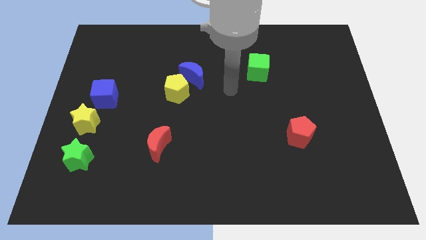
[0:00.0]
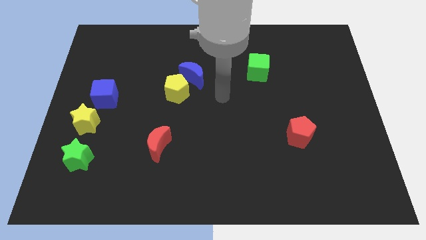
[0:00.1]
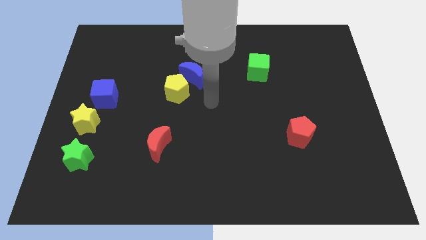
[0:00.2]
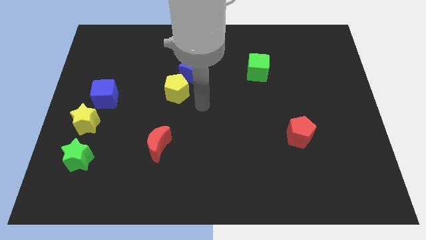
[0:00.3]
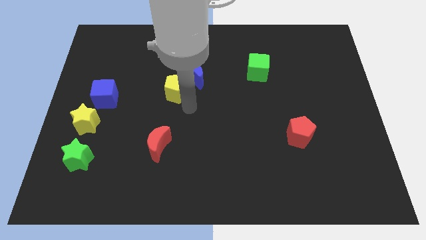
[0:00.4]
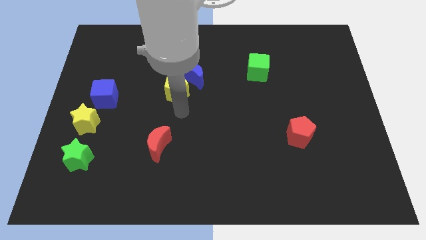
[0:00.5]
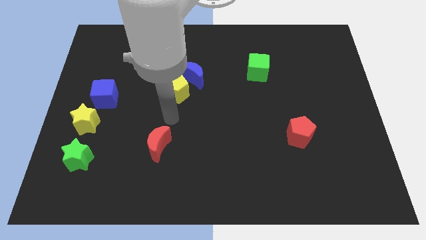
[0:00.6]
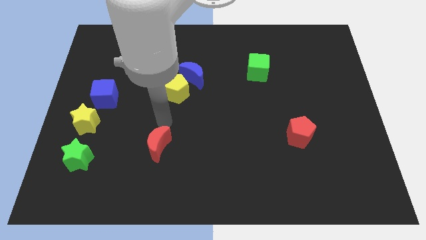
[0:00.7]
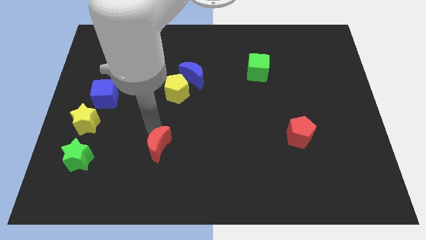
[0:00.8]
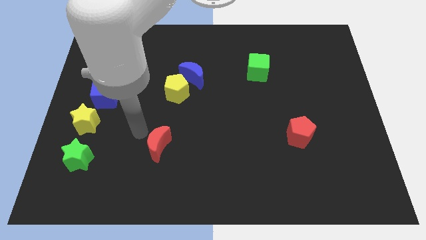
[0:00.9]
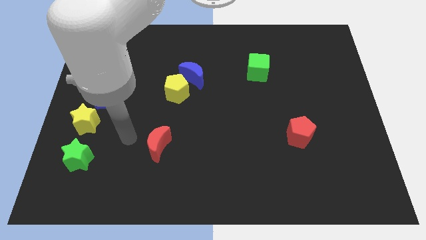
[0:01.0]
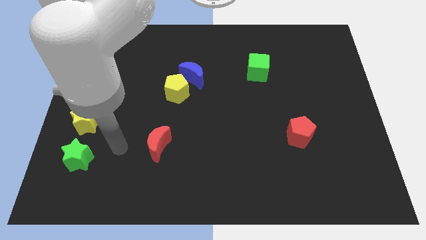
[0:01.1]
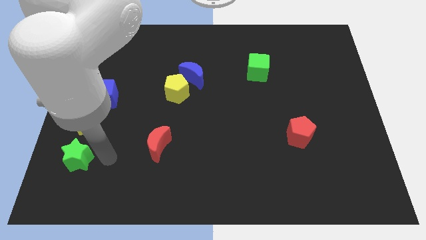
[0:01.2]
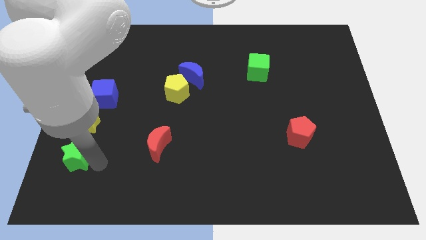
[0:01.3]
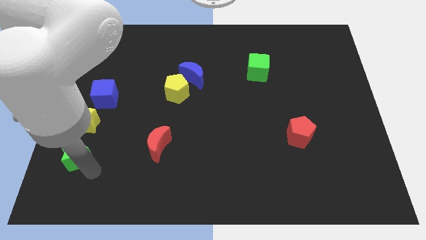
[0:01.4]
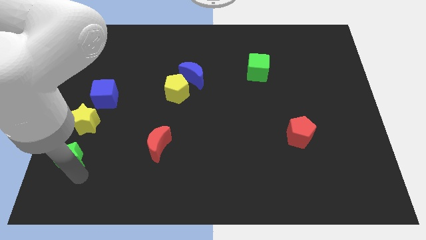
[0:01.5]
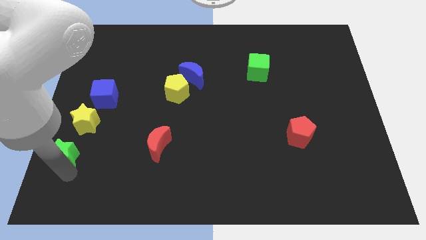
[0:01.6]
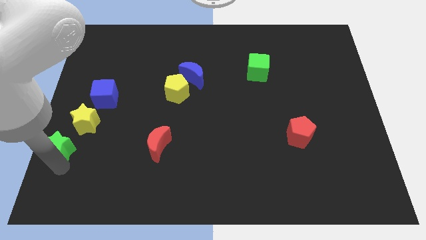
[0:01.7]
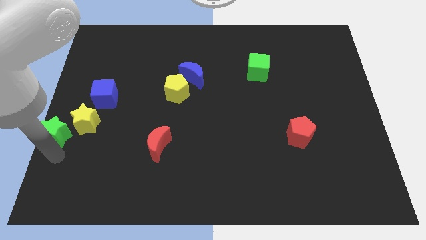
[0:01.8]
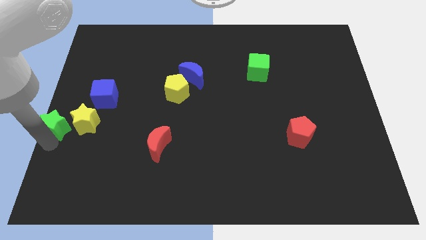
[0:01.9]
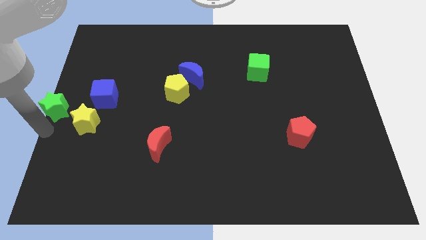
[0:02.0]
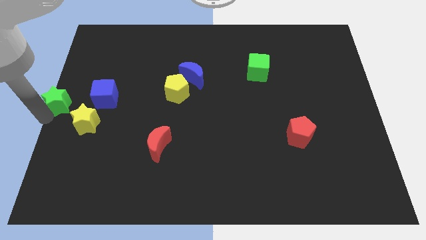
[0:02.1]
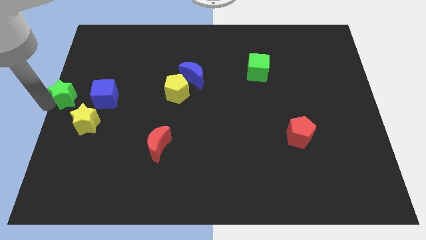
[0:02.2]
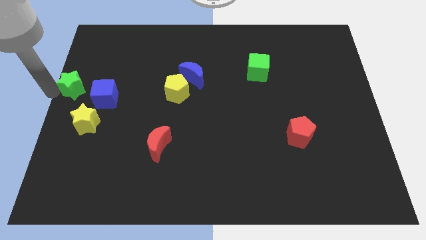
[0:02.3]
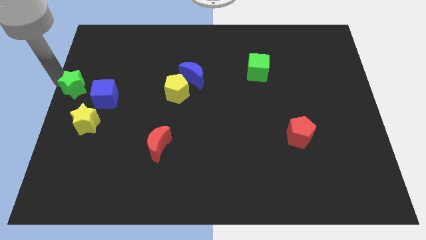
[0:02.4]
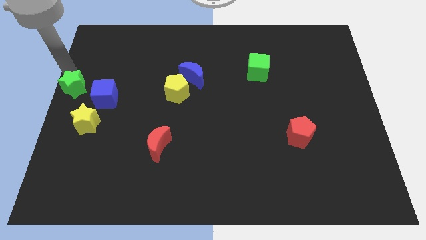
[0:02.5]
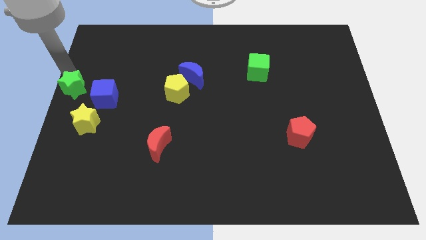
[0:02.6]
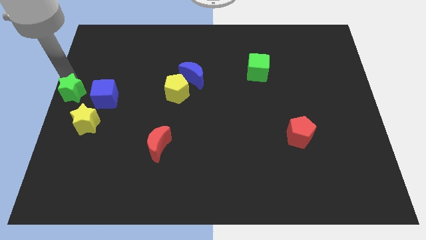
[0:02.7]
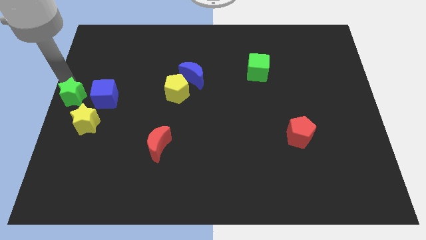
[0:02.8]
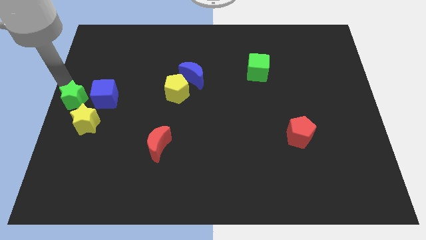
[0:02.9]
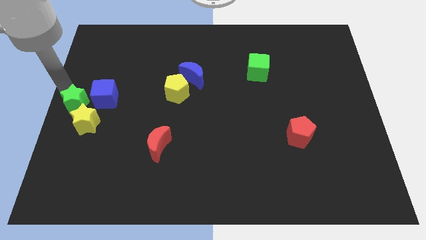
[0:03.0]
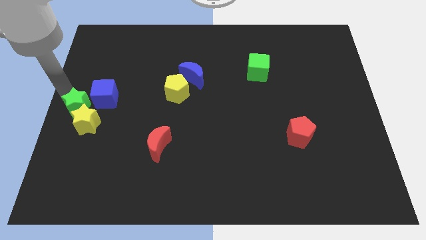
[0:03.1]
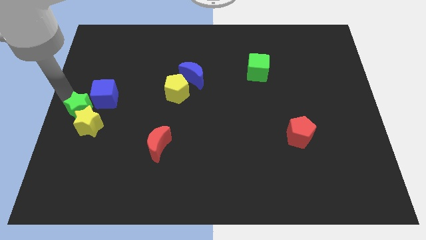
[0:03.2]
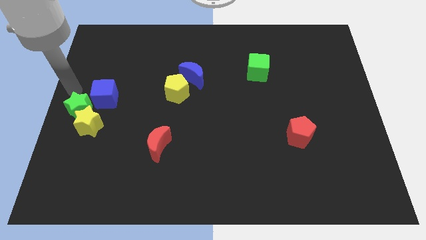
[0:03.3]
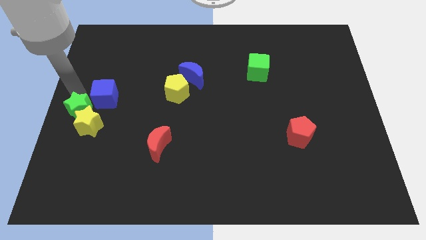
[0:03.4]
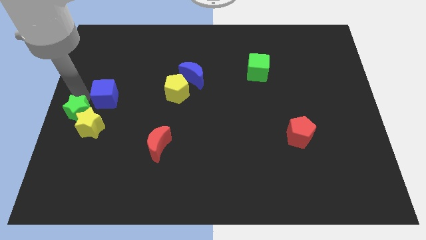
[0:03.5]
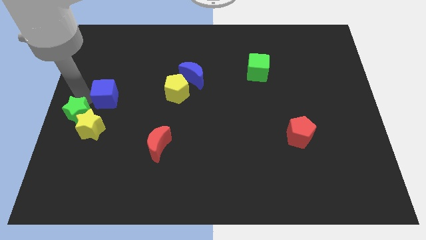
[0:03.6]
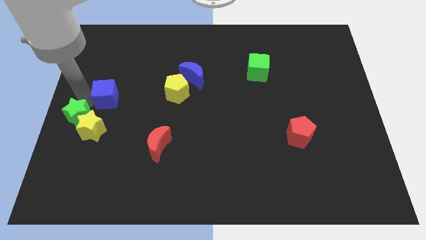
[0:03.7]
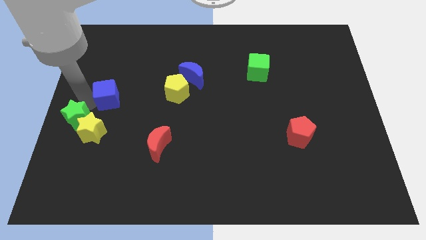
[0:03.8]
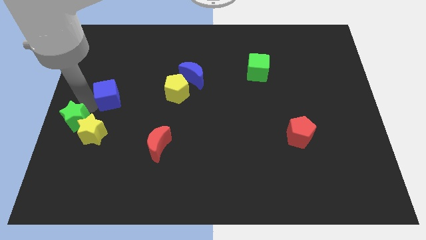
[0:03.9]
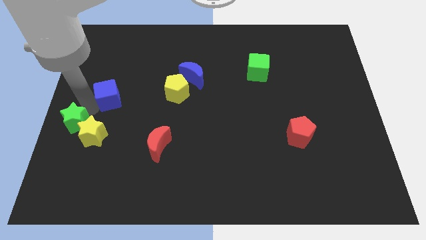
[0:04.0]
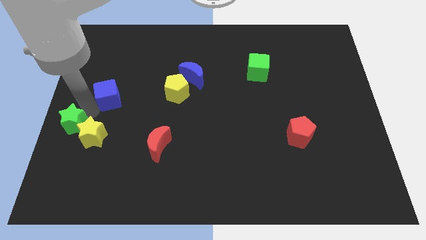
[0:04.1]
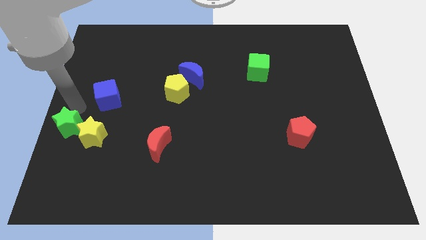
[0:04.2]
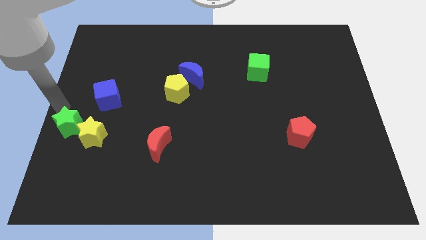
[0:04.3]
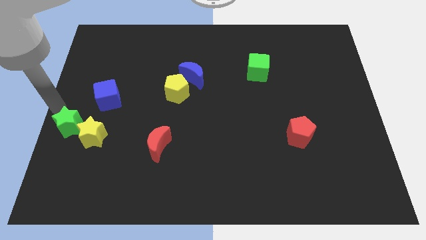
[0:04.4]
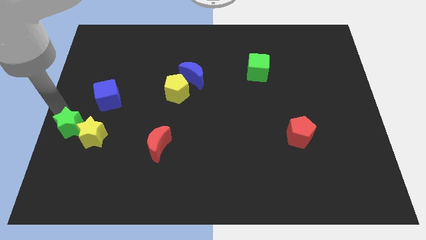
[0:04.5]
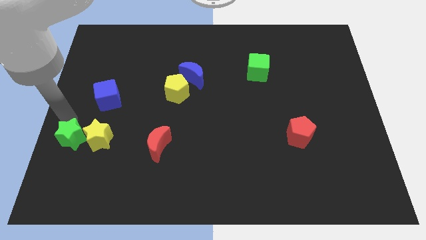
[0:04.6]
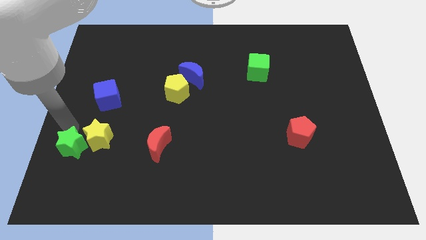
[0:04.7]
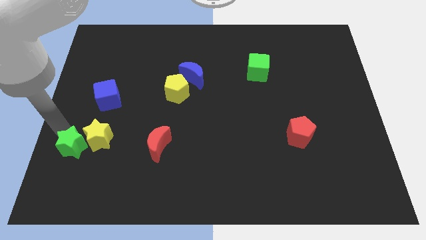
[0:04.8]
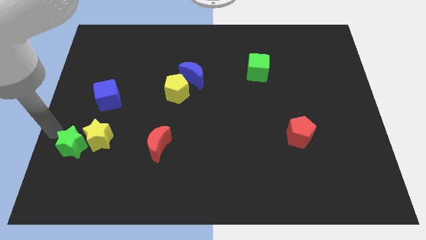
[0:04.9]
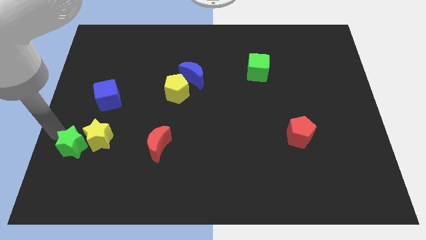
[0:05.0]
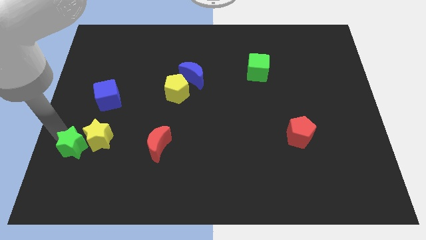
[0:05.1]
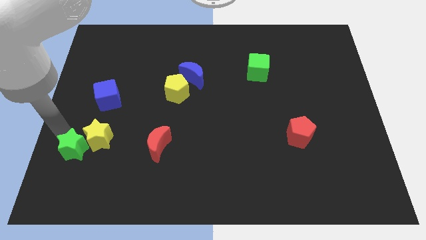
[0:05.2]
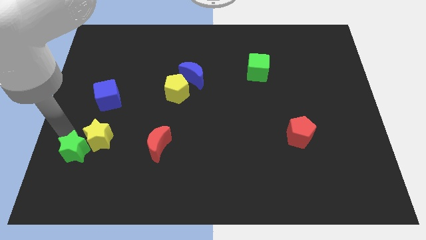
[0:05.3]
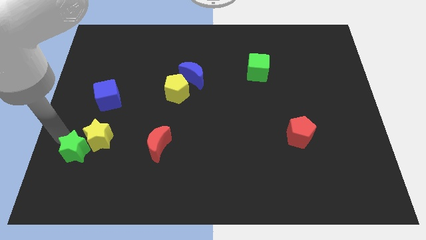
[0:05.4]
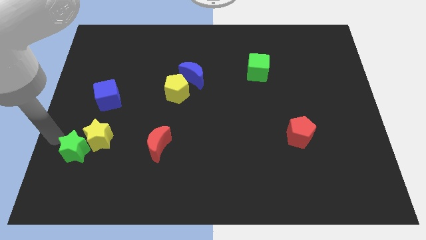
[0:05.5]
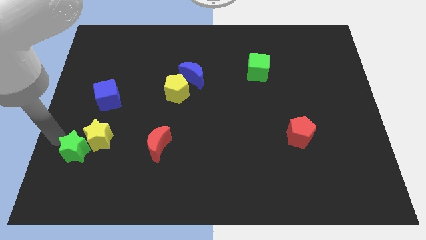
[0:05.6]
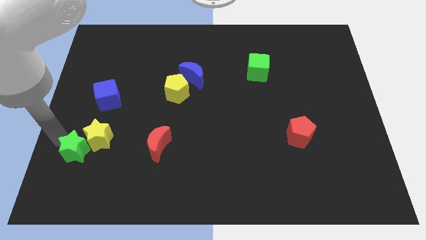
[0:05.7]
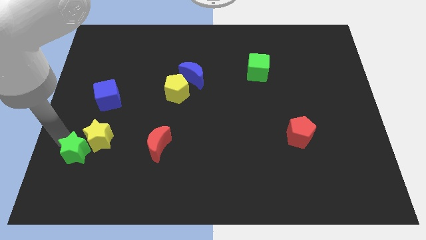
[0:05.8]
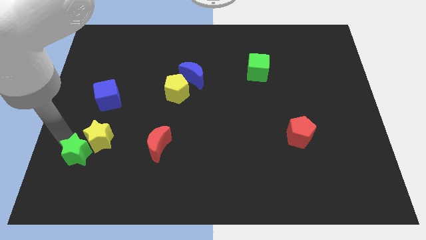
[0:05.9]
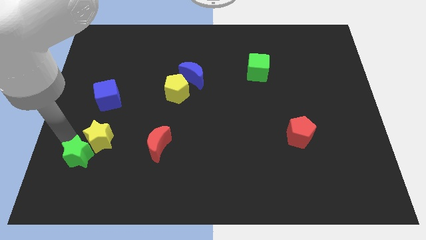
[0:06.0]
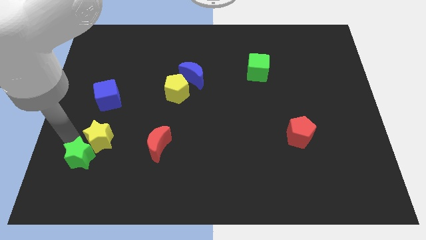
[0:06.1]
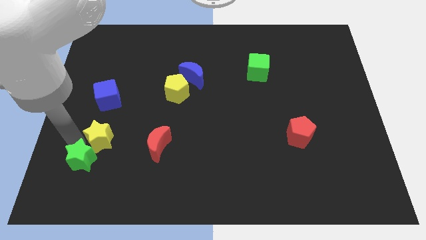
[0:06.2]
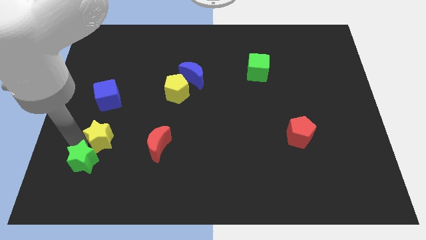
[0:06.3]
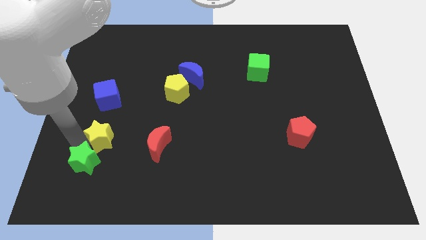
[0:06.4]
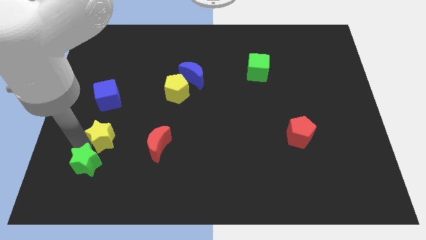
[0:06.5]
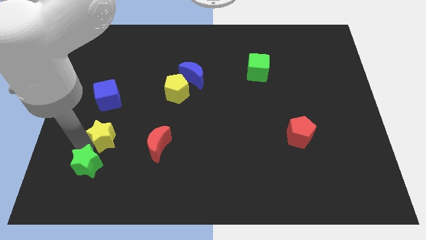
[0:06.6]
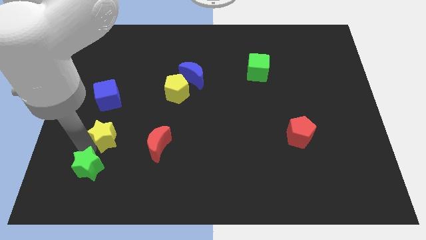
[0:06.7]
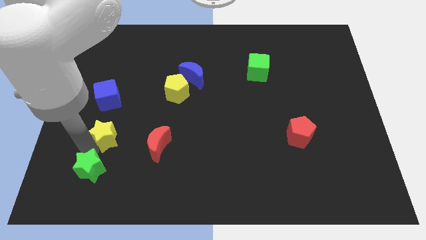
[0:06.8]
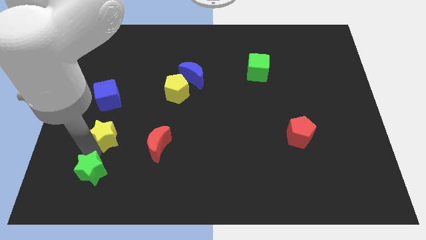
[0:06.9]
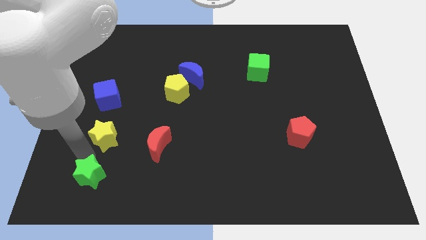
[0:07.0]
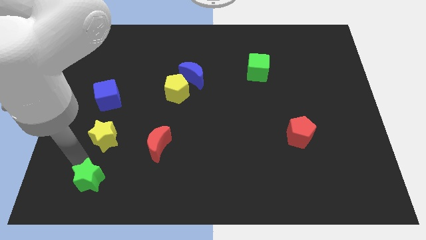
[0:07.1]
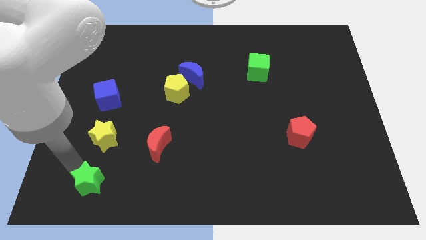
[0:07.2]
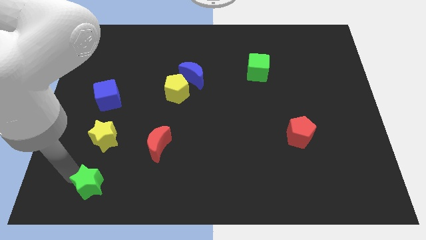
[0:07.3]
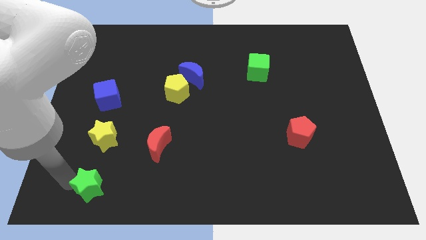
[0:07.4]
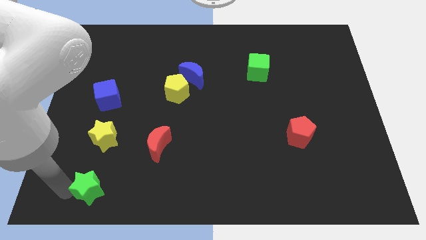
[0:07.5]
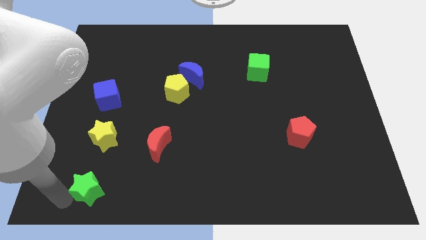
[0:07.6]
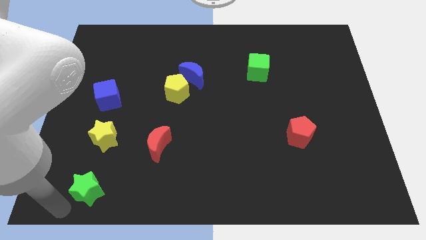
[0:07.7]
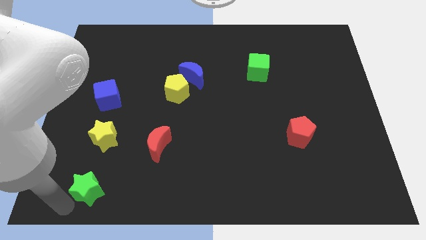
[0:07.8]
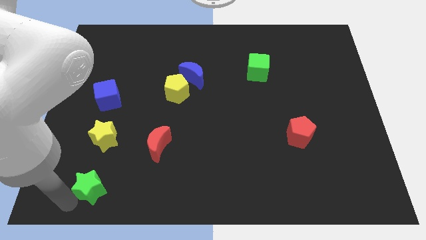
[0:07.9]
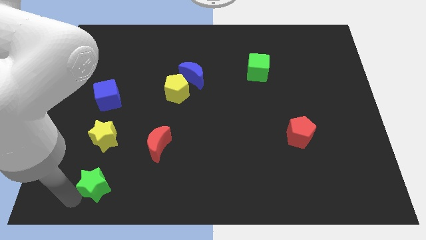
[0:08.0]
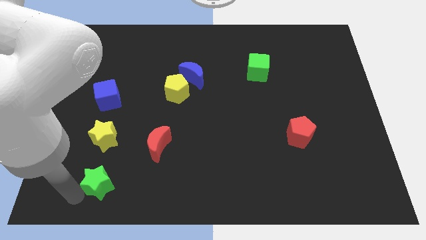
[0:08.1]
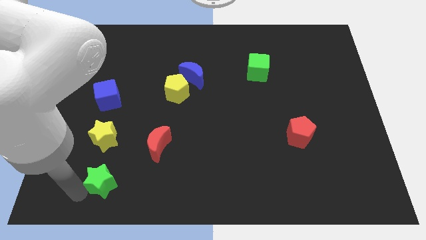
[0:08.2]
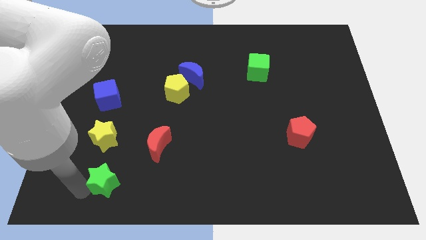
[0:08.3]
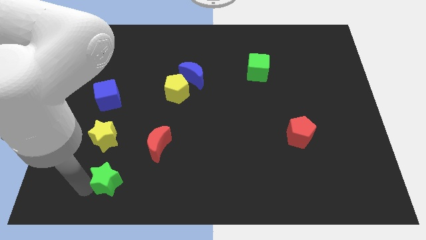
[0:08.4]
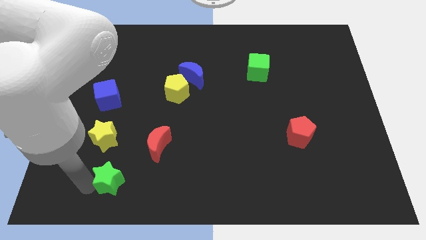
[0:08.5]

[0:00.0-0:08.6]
move the green star to the right a little

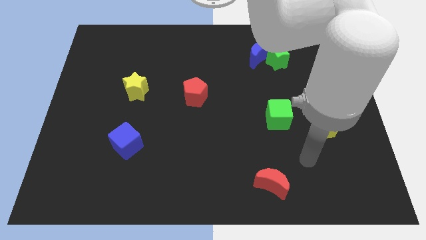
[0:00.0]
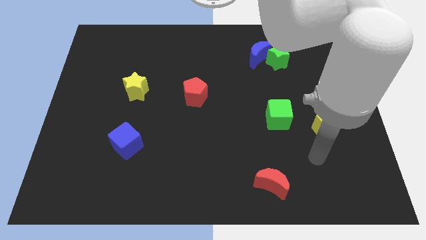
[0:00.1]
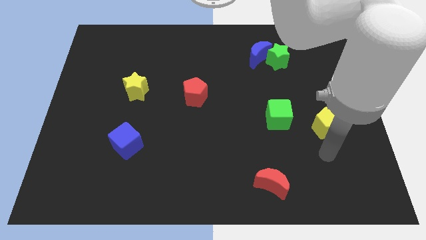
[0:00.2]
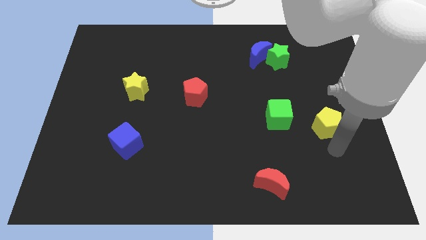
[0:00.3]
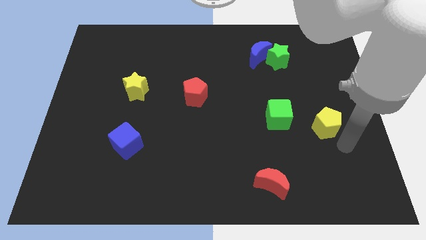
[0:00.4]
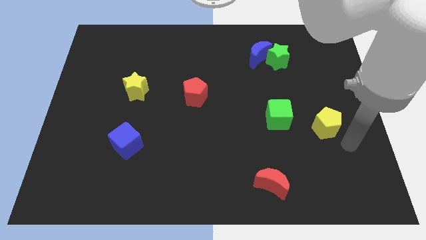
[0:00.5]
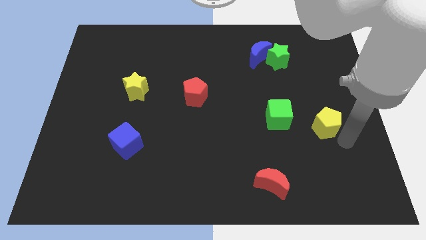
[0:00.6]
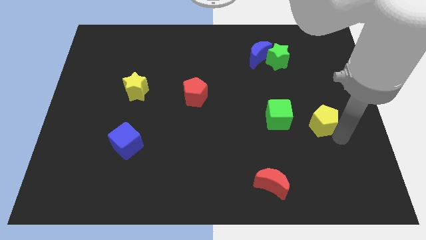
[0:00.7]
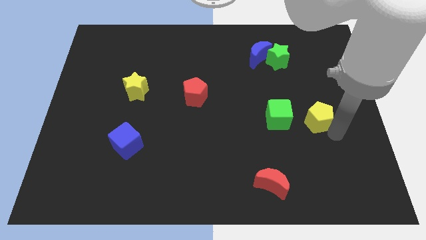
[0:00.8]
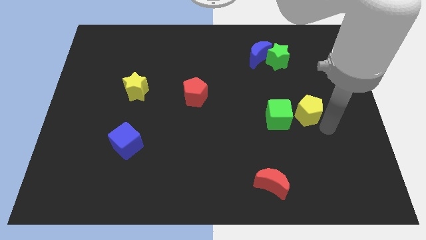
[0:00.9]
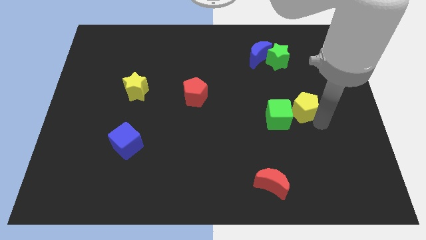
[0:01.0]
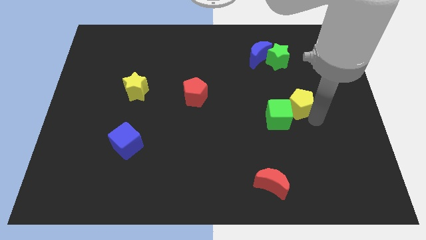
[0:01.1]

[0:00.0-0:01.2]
move the yellow pentagon a little diagonally upwards and to the left
